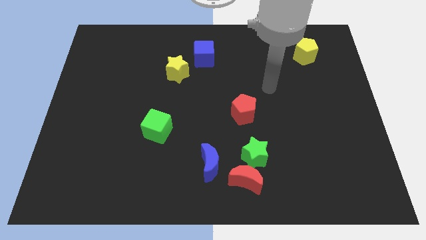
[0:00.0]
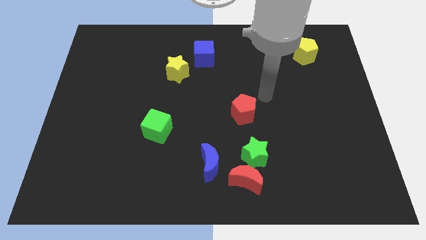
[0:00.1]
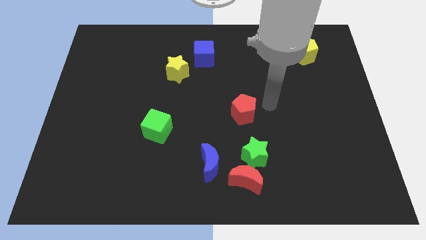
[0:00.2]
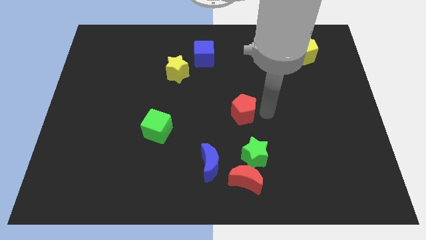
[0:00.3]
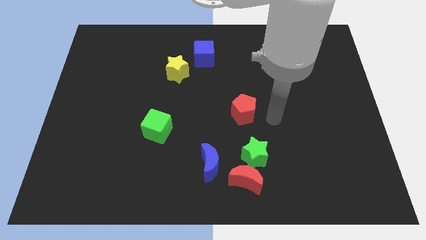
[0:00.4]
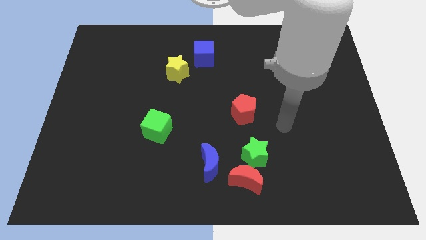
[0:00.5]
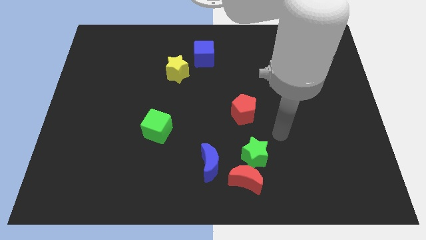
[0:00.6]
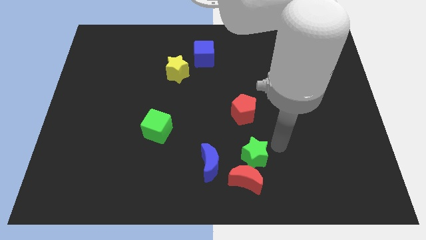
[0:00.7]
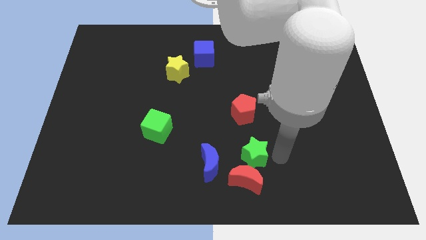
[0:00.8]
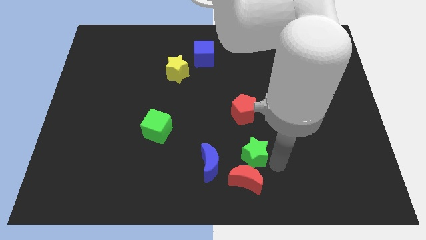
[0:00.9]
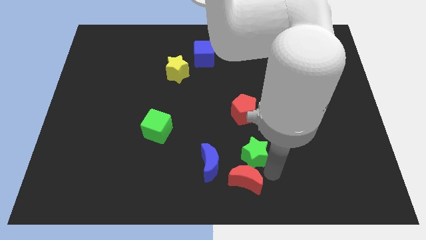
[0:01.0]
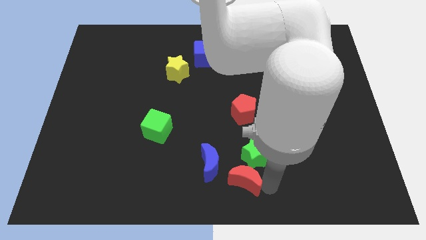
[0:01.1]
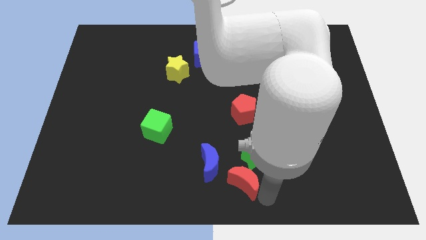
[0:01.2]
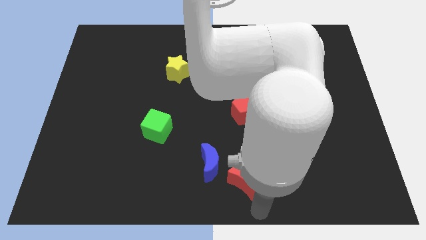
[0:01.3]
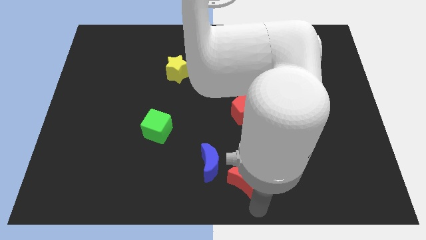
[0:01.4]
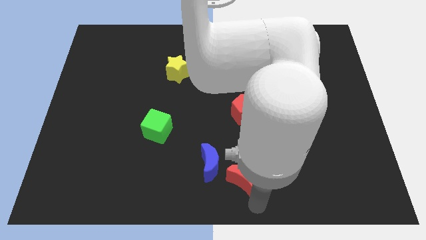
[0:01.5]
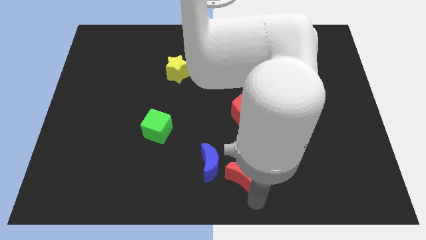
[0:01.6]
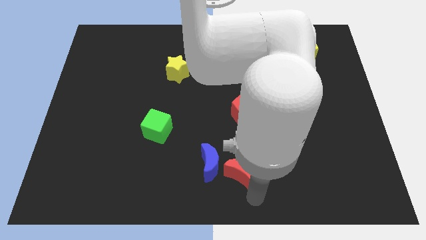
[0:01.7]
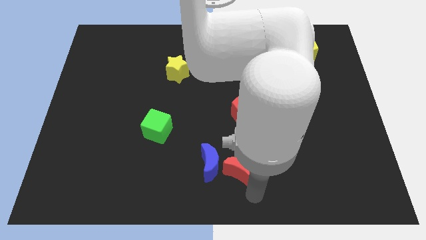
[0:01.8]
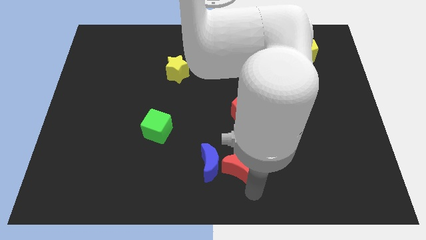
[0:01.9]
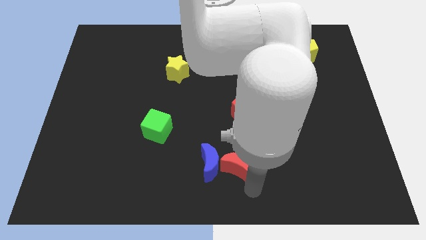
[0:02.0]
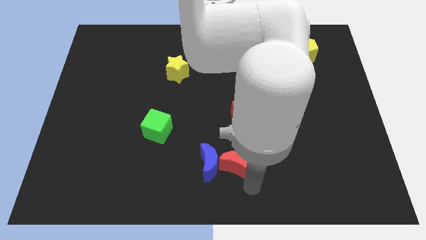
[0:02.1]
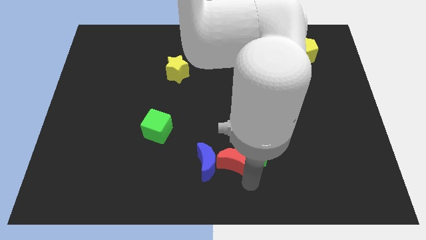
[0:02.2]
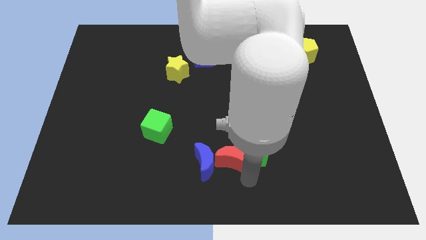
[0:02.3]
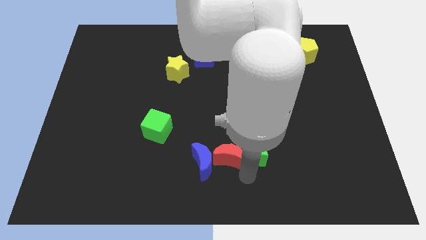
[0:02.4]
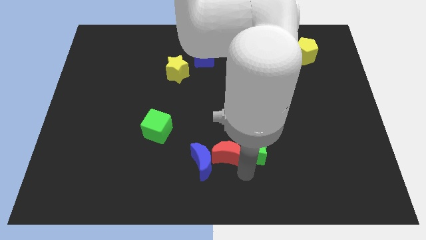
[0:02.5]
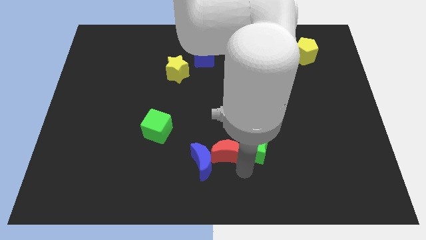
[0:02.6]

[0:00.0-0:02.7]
move the red moon a bit upwards and left diagonally

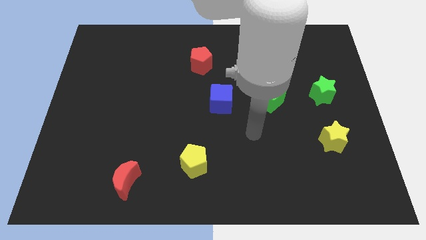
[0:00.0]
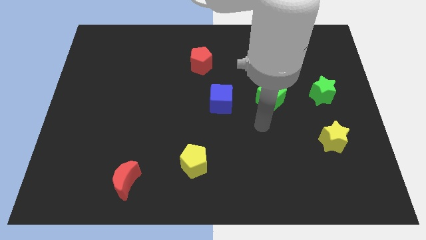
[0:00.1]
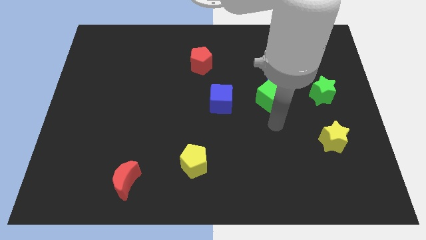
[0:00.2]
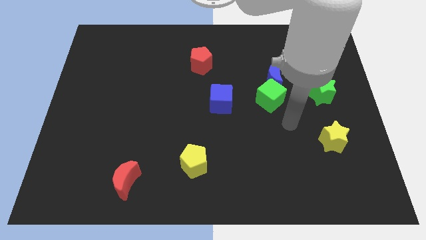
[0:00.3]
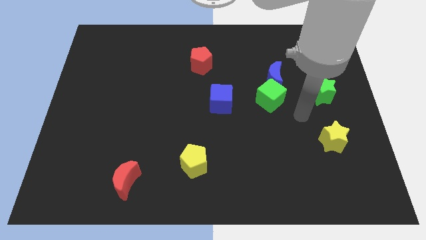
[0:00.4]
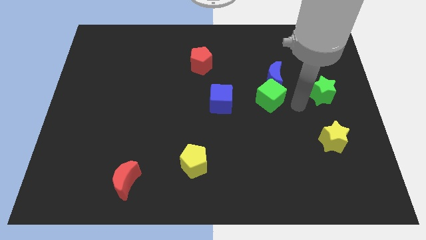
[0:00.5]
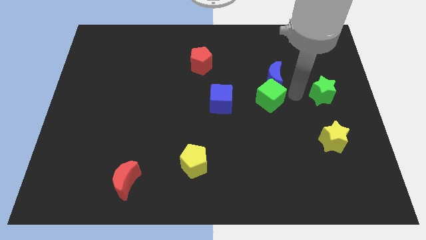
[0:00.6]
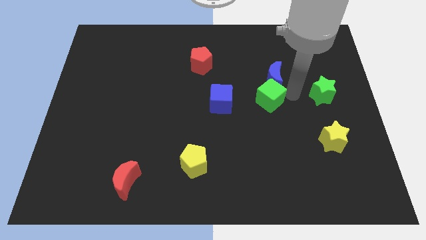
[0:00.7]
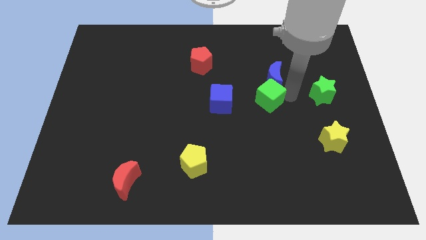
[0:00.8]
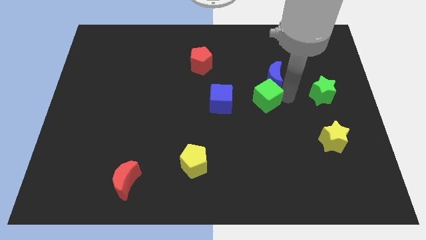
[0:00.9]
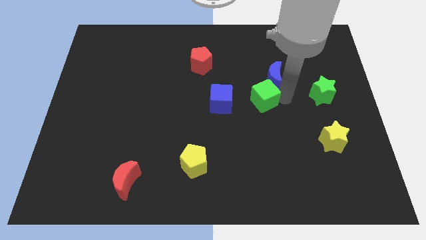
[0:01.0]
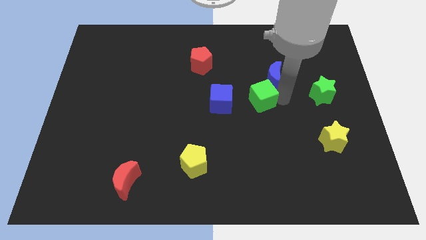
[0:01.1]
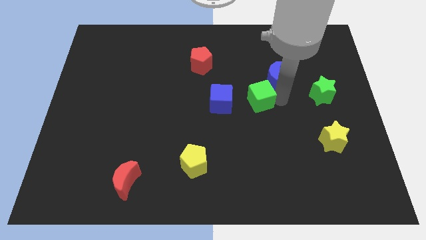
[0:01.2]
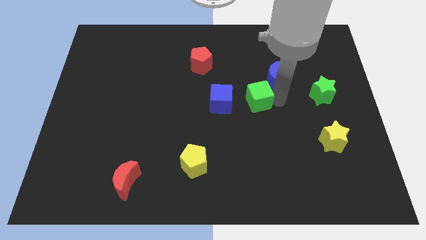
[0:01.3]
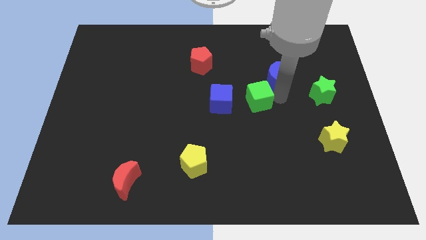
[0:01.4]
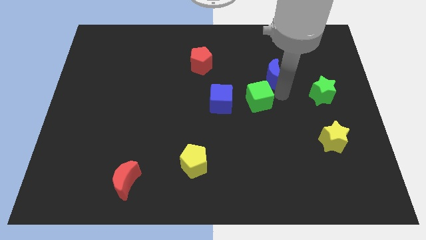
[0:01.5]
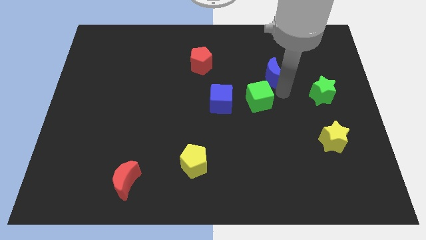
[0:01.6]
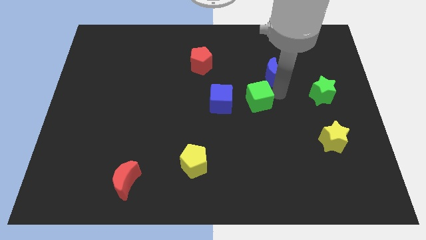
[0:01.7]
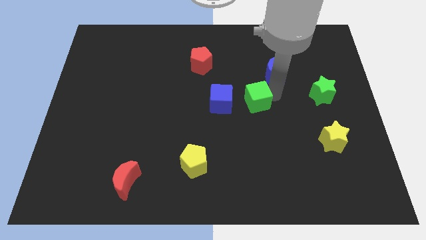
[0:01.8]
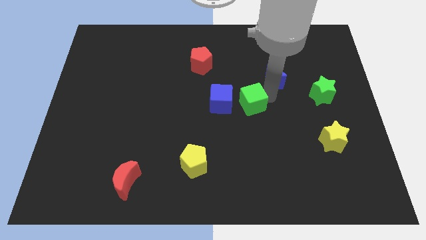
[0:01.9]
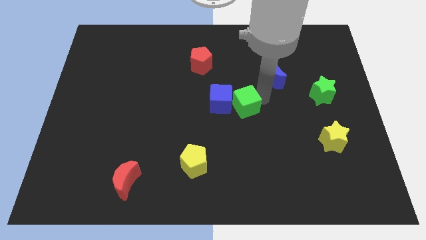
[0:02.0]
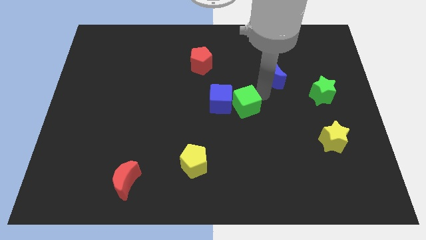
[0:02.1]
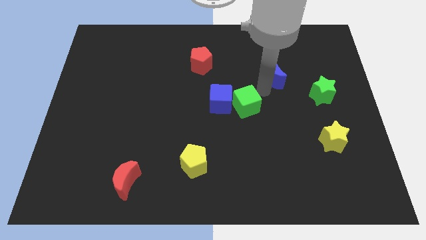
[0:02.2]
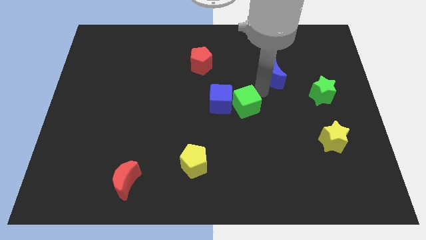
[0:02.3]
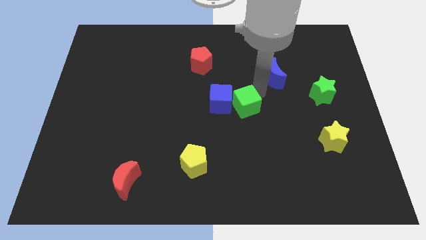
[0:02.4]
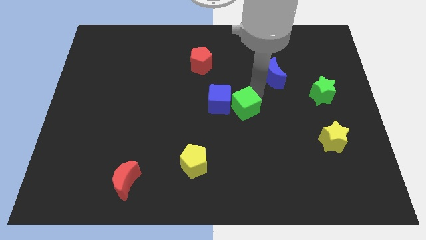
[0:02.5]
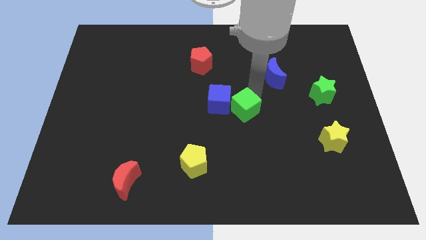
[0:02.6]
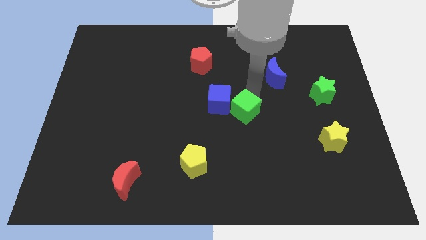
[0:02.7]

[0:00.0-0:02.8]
push the green cube a little down and then to the left

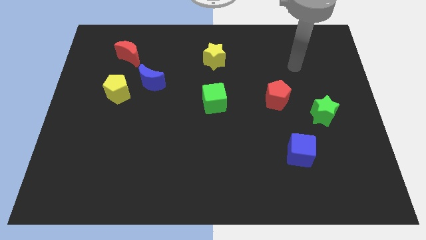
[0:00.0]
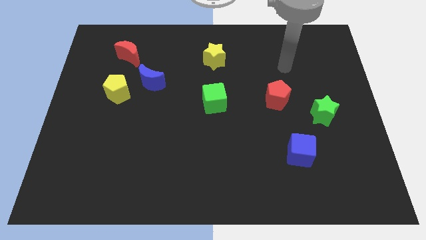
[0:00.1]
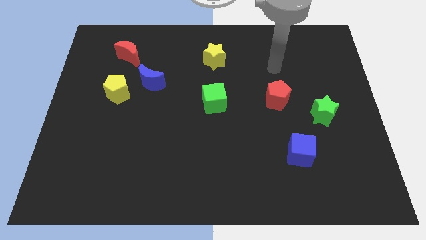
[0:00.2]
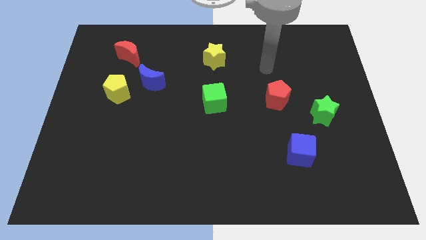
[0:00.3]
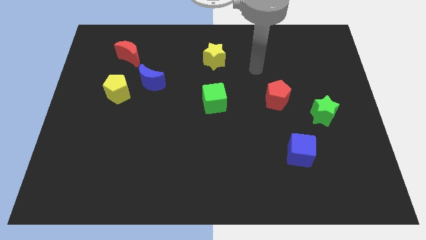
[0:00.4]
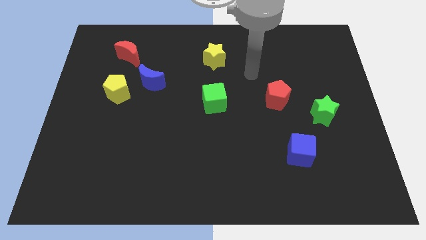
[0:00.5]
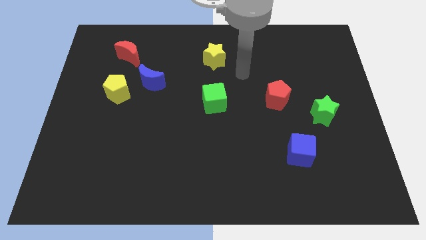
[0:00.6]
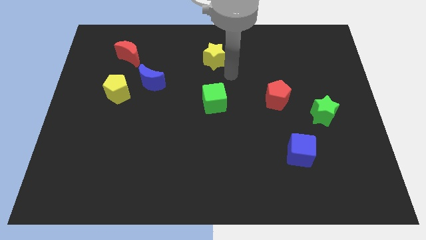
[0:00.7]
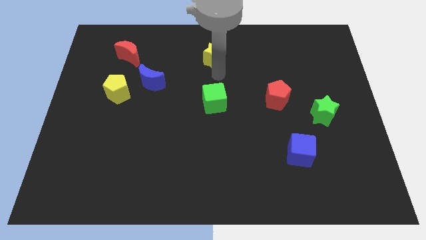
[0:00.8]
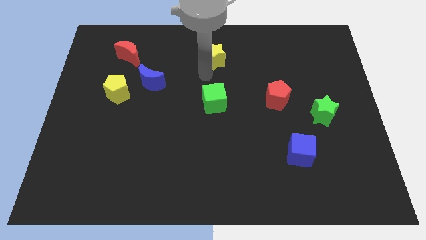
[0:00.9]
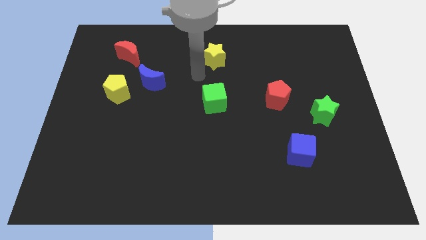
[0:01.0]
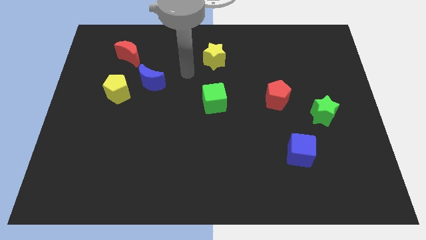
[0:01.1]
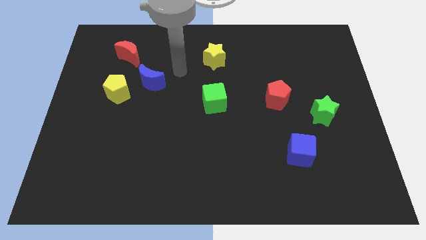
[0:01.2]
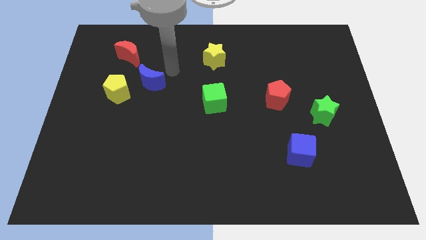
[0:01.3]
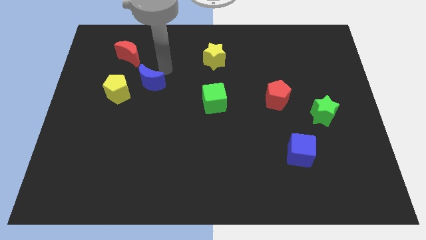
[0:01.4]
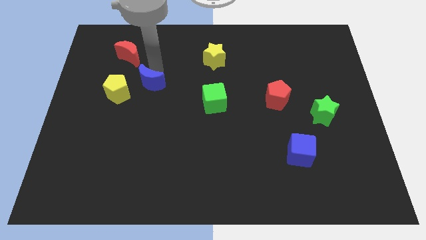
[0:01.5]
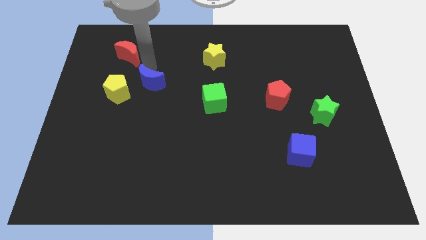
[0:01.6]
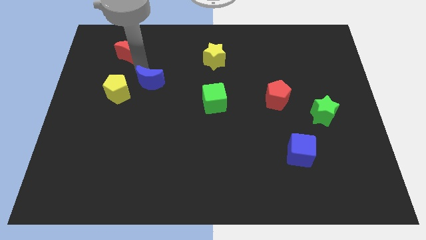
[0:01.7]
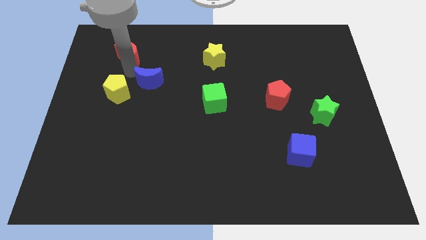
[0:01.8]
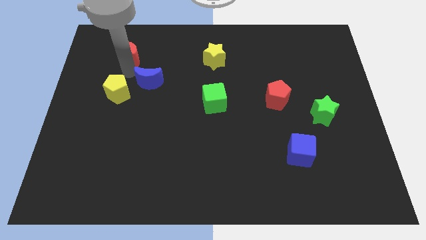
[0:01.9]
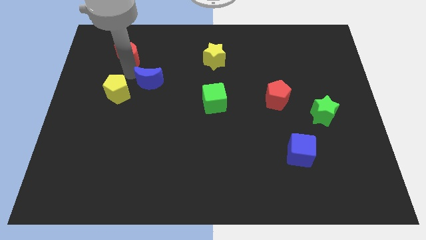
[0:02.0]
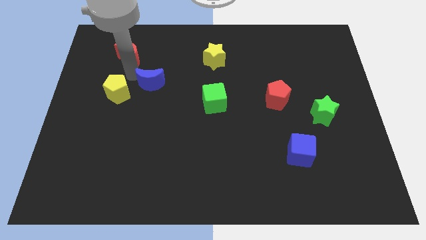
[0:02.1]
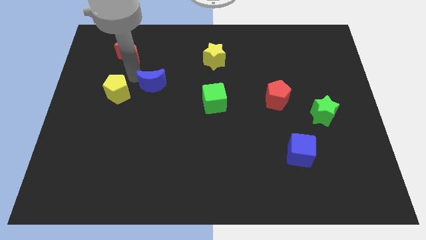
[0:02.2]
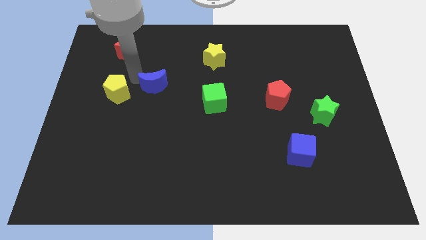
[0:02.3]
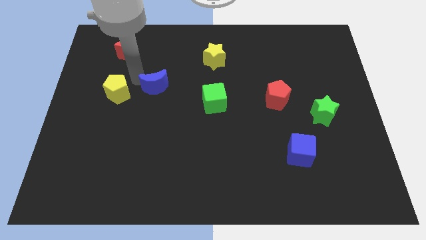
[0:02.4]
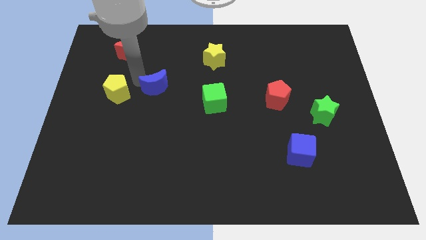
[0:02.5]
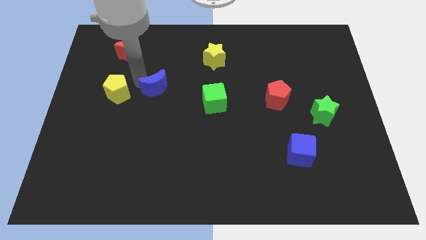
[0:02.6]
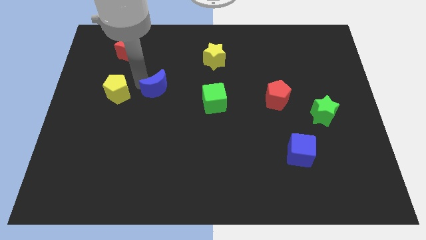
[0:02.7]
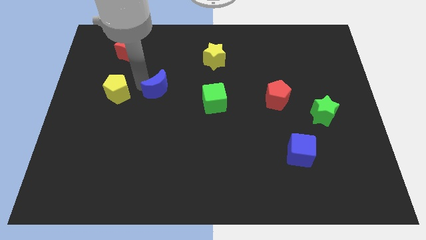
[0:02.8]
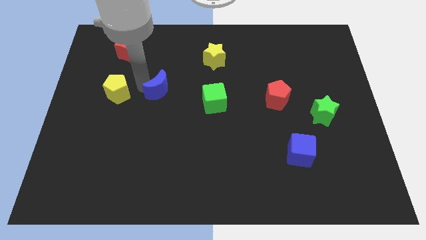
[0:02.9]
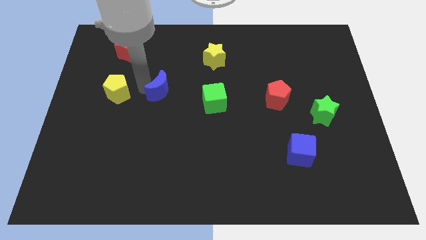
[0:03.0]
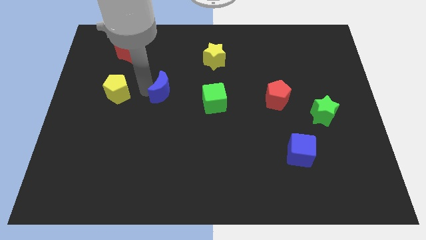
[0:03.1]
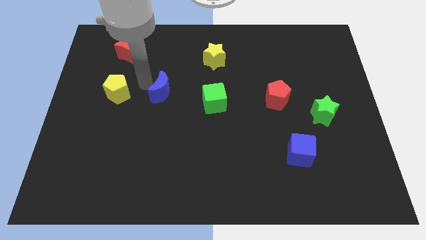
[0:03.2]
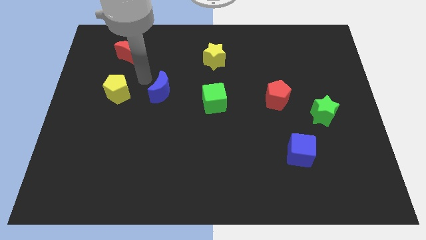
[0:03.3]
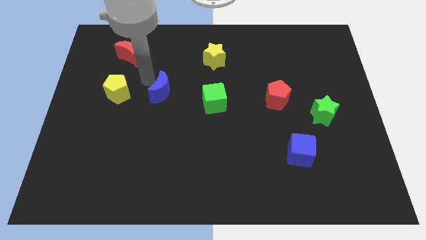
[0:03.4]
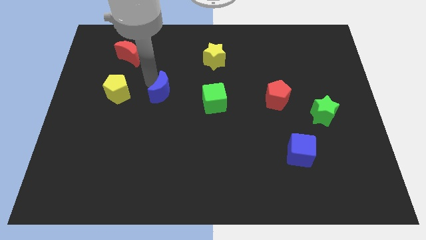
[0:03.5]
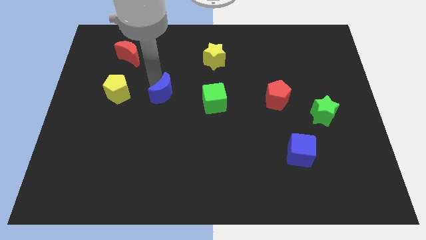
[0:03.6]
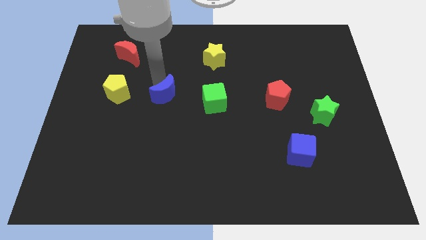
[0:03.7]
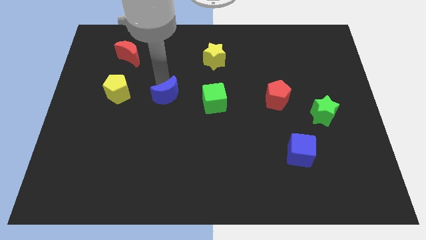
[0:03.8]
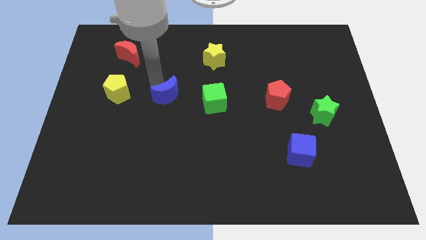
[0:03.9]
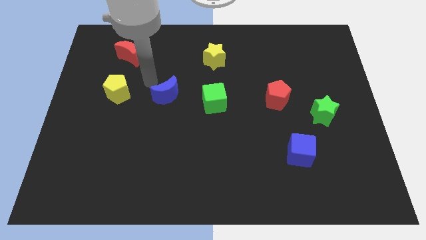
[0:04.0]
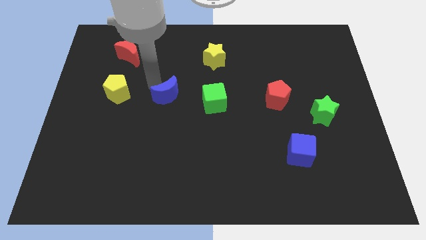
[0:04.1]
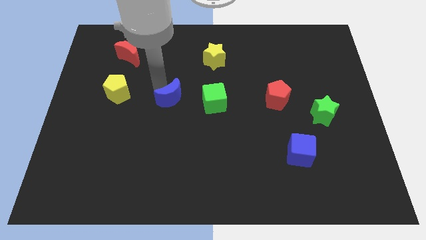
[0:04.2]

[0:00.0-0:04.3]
push the blue moon downwards and then to the right a little bit
